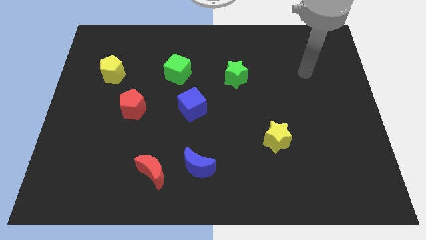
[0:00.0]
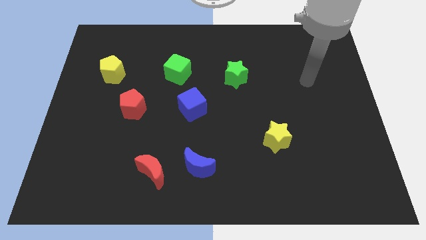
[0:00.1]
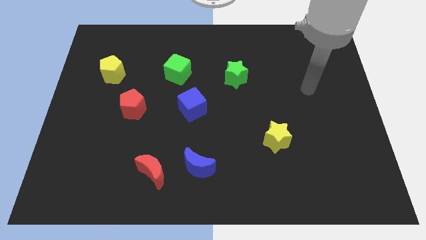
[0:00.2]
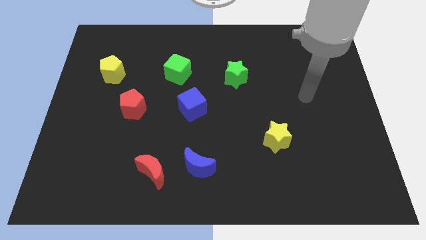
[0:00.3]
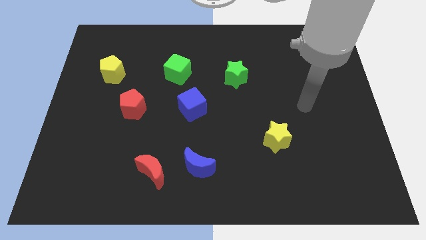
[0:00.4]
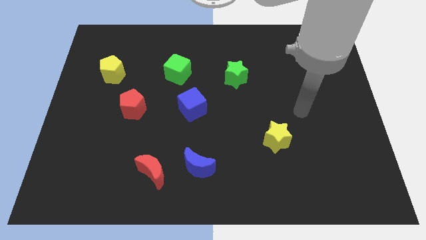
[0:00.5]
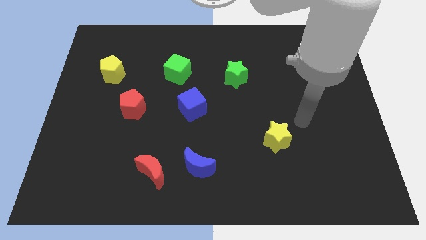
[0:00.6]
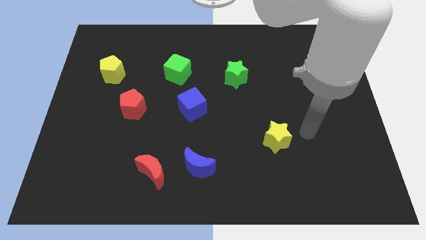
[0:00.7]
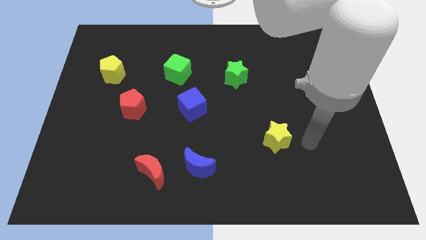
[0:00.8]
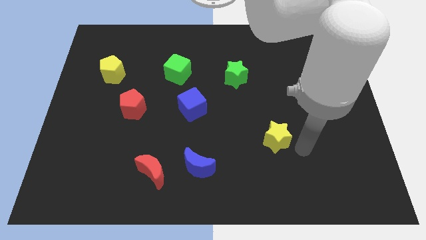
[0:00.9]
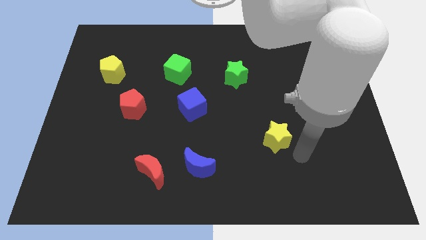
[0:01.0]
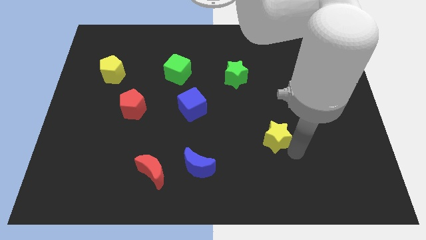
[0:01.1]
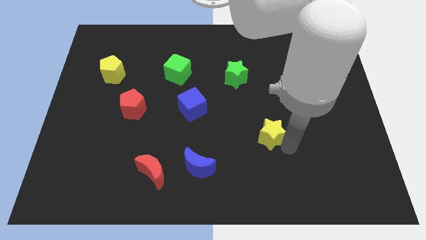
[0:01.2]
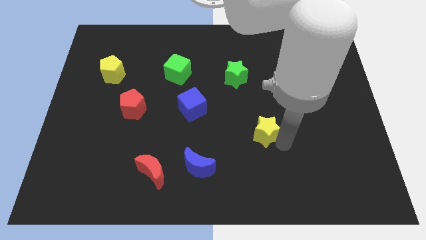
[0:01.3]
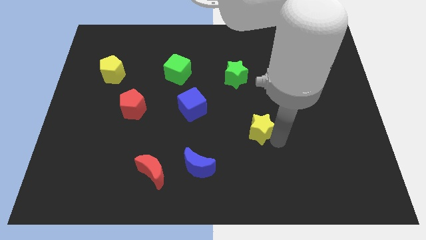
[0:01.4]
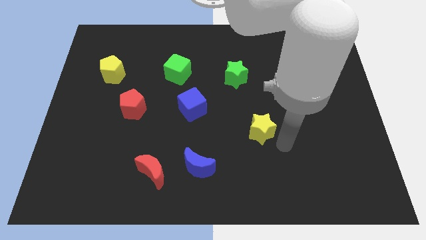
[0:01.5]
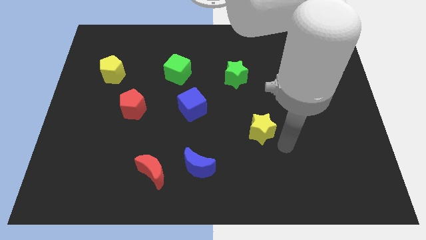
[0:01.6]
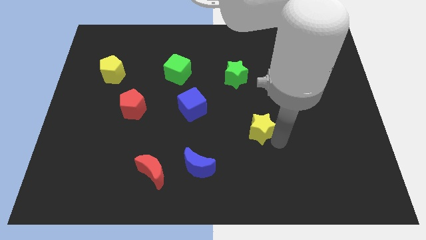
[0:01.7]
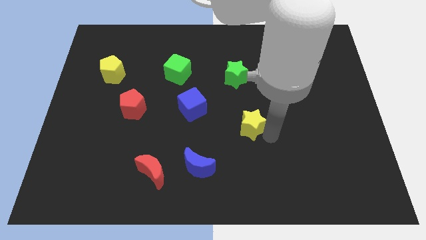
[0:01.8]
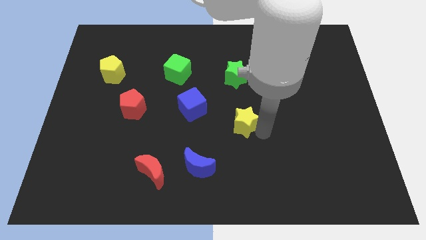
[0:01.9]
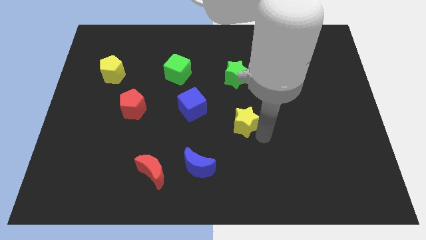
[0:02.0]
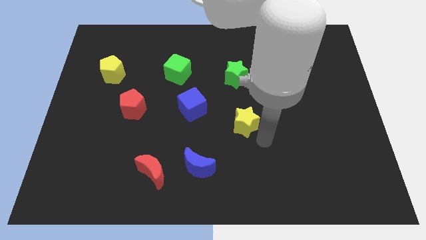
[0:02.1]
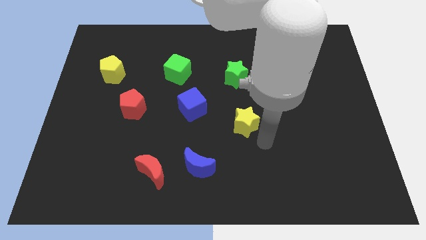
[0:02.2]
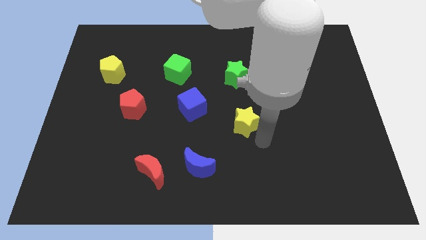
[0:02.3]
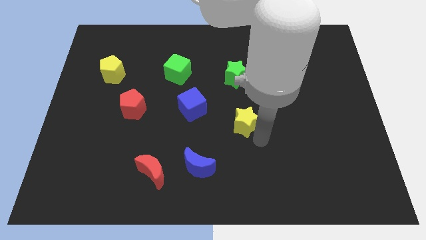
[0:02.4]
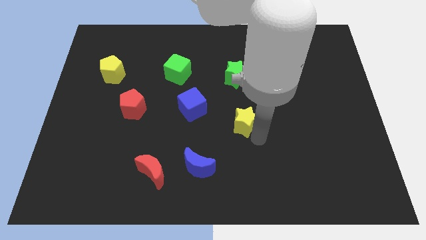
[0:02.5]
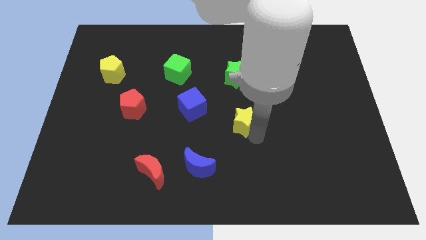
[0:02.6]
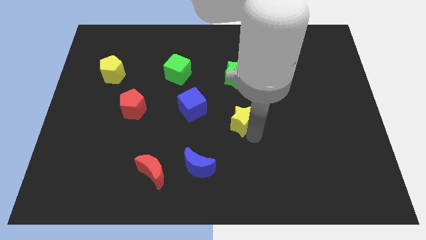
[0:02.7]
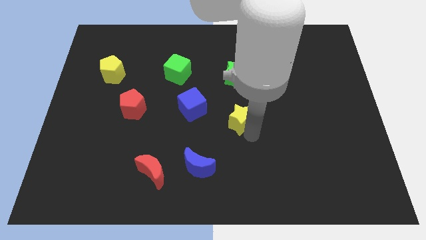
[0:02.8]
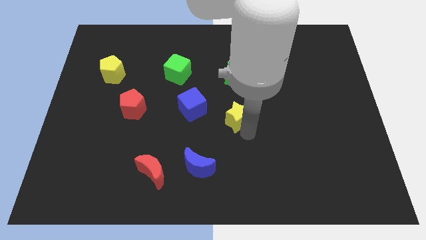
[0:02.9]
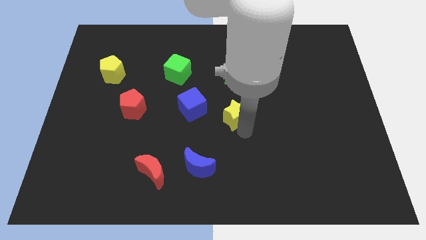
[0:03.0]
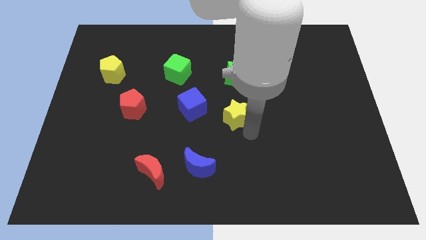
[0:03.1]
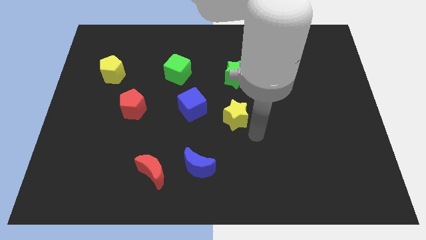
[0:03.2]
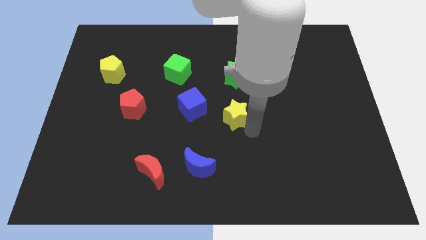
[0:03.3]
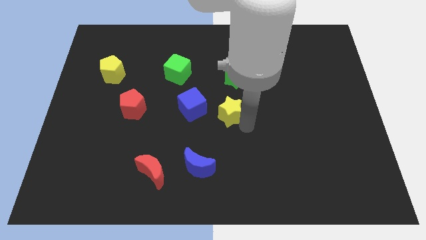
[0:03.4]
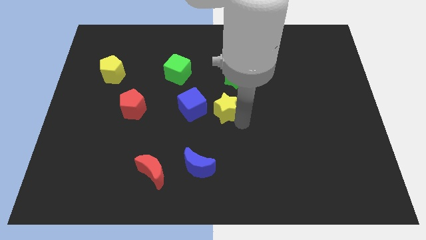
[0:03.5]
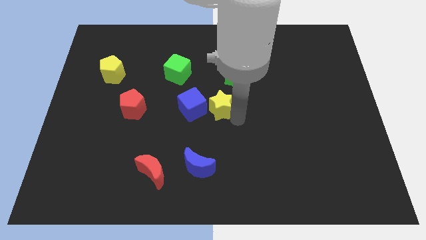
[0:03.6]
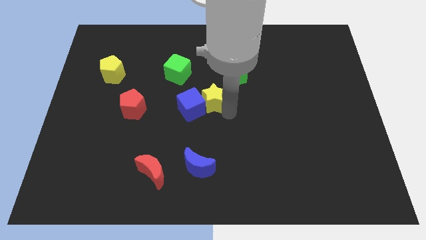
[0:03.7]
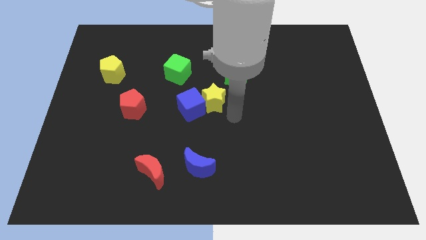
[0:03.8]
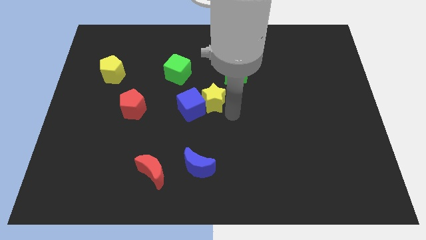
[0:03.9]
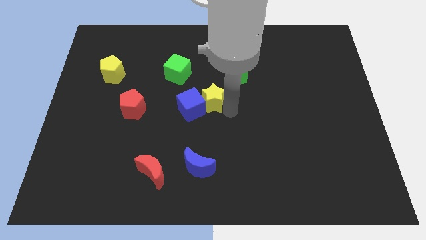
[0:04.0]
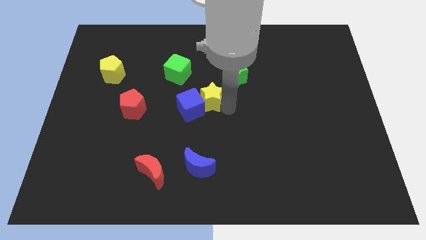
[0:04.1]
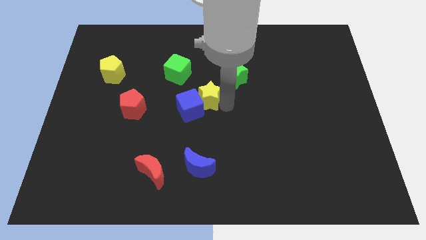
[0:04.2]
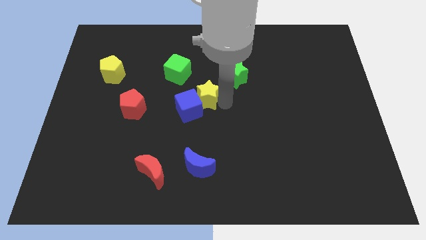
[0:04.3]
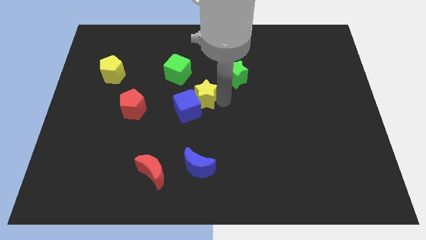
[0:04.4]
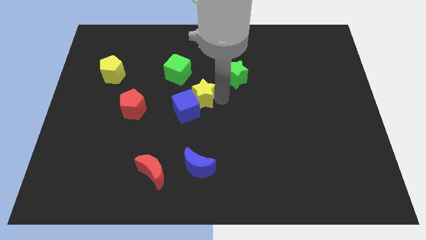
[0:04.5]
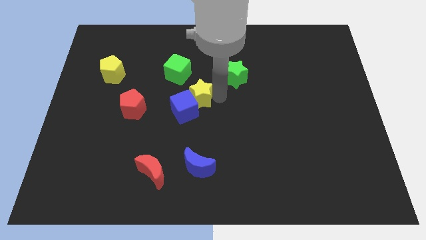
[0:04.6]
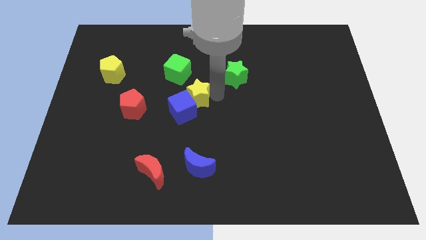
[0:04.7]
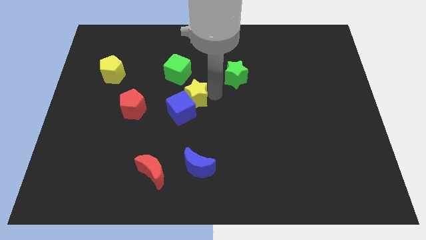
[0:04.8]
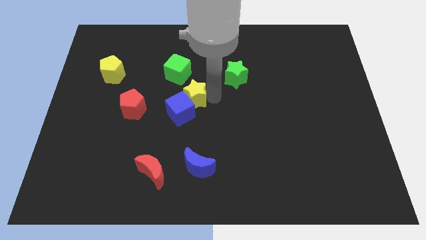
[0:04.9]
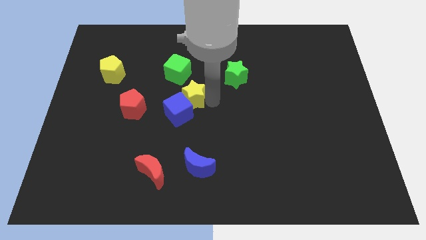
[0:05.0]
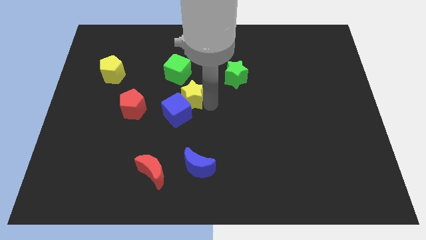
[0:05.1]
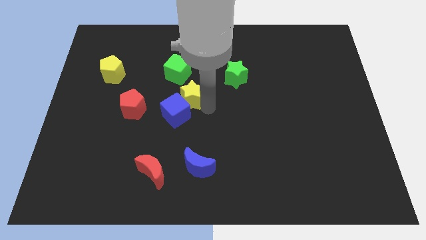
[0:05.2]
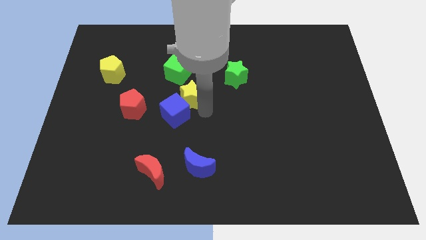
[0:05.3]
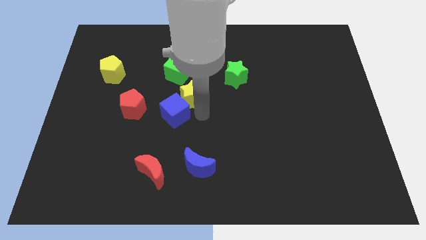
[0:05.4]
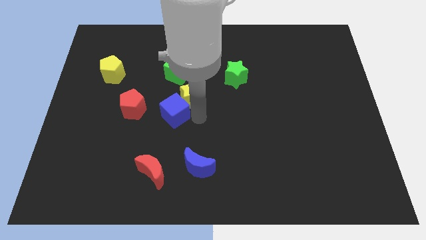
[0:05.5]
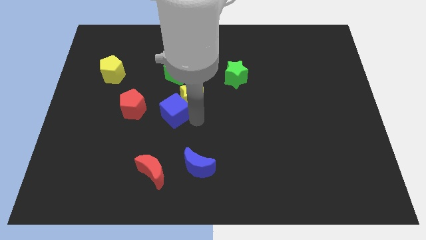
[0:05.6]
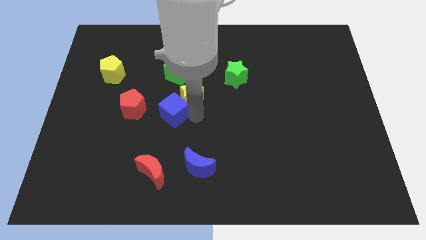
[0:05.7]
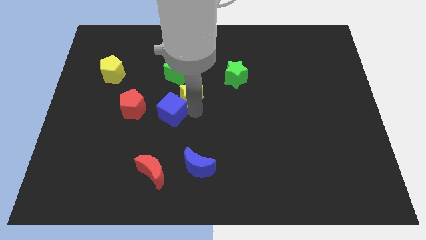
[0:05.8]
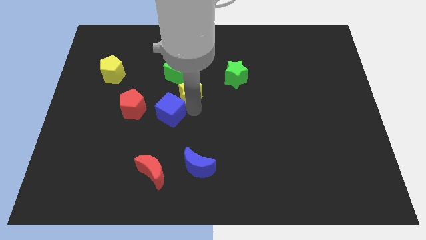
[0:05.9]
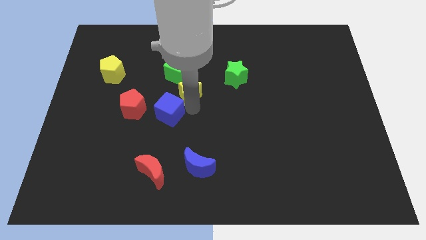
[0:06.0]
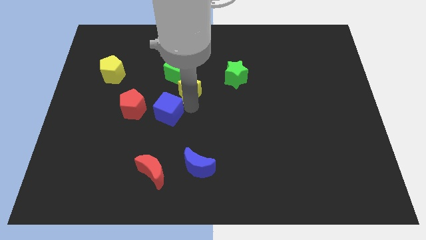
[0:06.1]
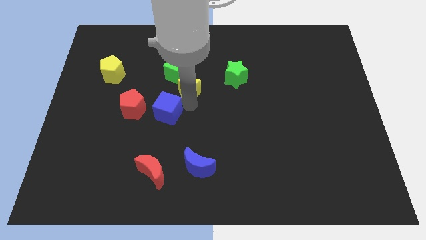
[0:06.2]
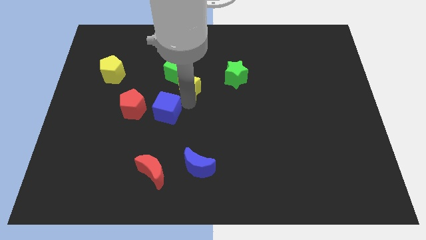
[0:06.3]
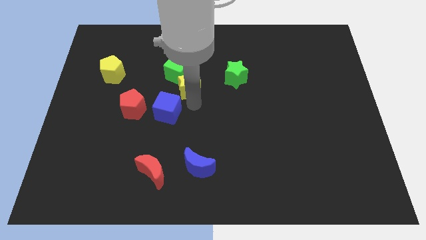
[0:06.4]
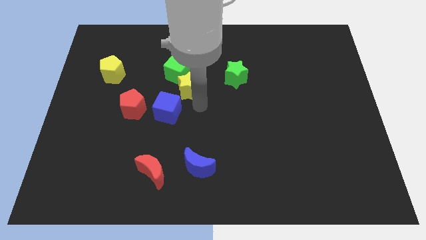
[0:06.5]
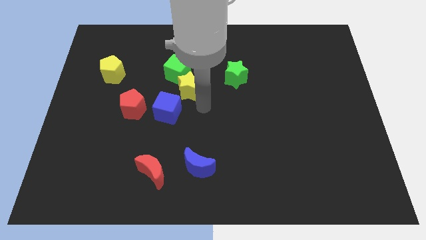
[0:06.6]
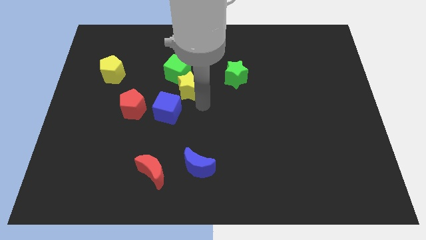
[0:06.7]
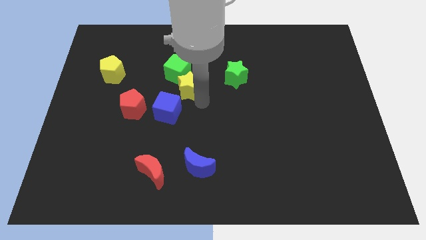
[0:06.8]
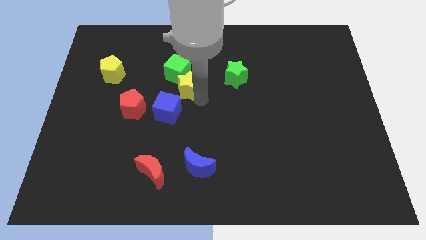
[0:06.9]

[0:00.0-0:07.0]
move the yellow star next to the green cube
